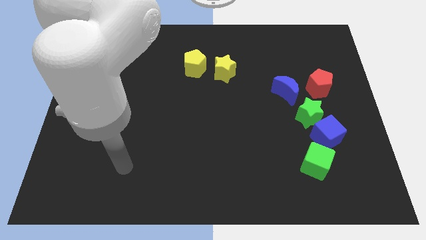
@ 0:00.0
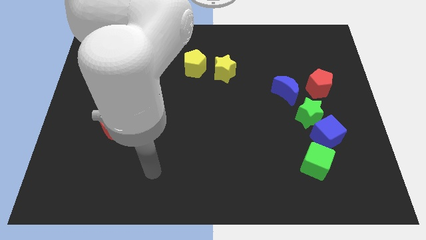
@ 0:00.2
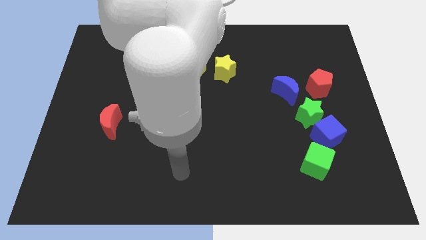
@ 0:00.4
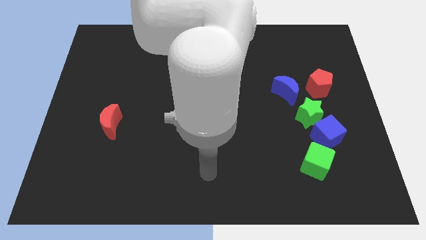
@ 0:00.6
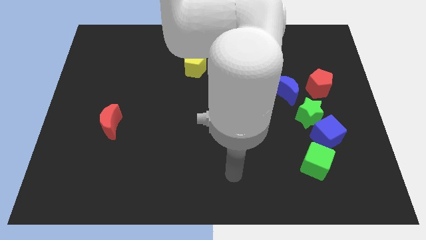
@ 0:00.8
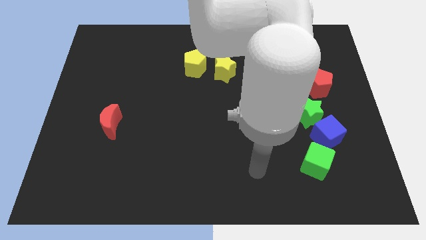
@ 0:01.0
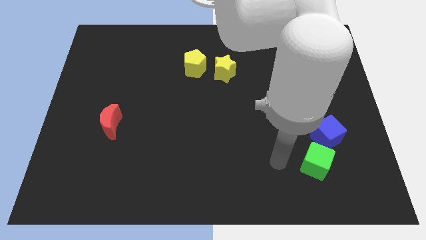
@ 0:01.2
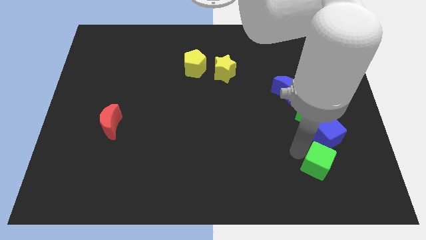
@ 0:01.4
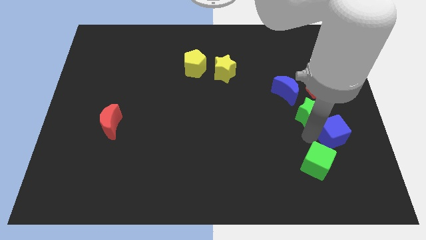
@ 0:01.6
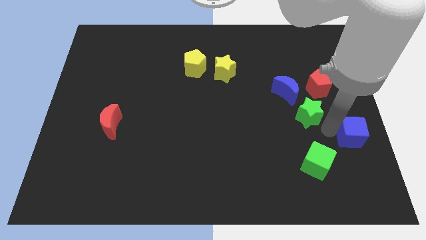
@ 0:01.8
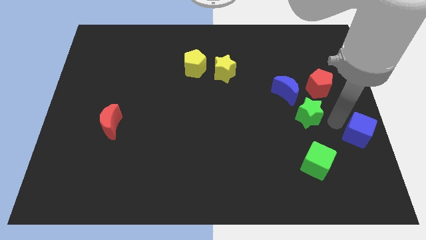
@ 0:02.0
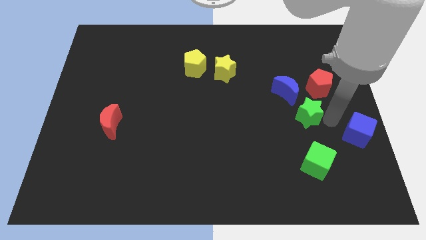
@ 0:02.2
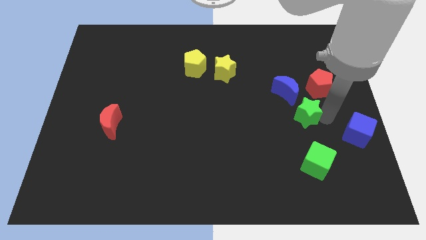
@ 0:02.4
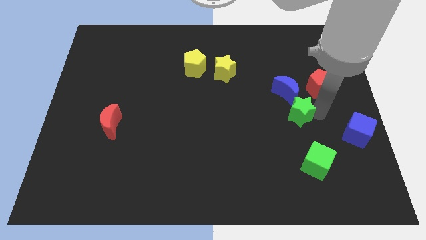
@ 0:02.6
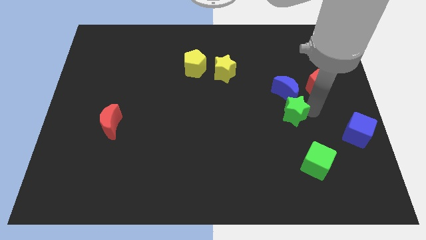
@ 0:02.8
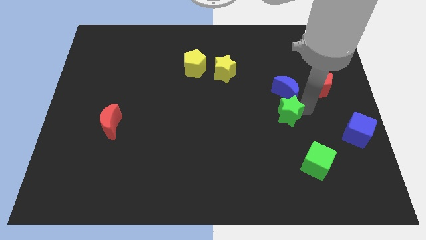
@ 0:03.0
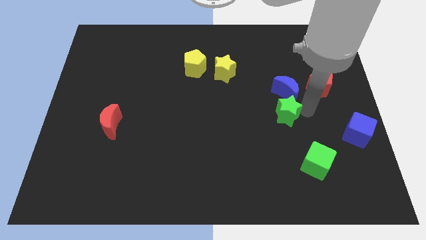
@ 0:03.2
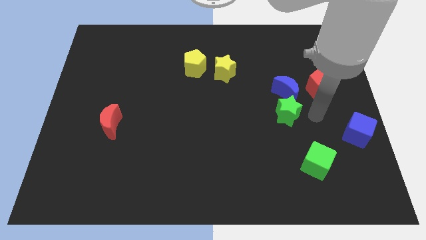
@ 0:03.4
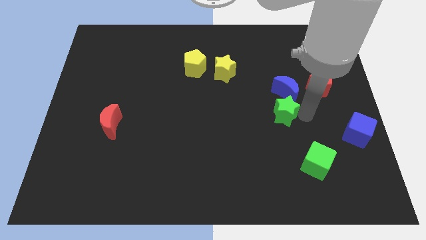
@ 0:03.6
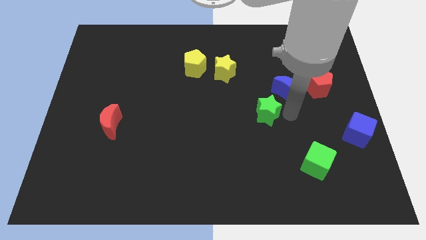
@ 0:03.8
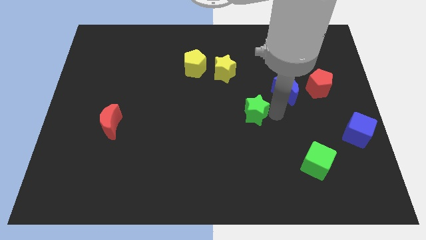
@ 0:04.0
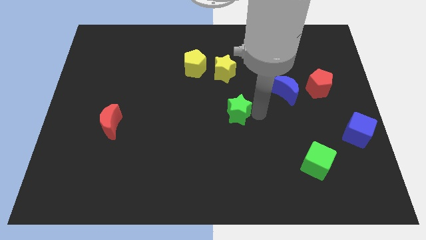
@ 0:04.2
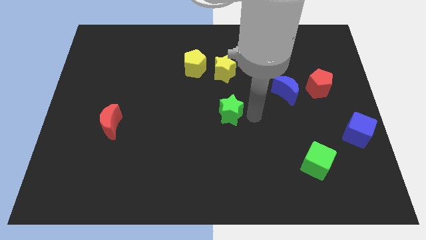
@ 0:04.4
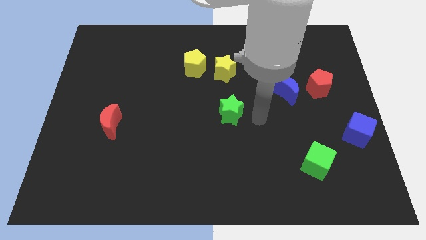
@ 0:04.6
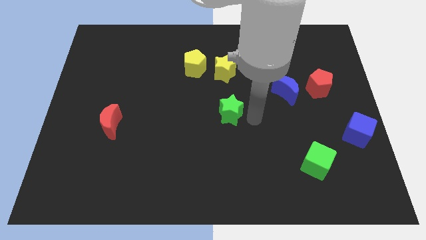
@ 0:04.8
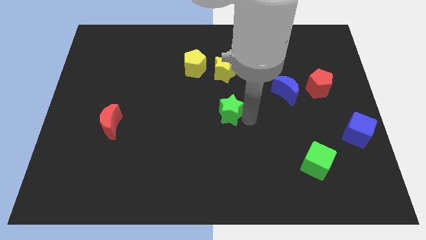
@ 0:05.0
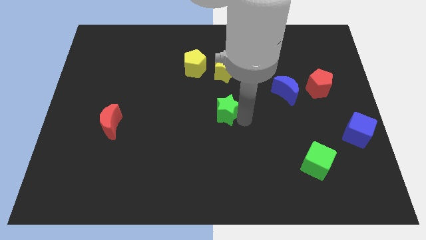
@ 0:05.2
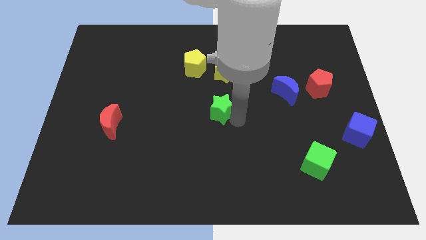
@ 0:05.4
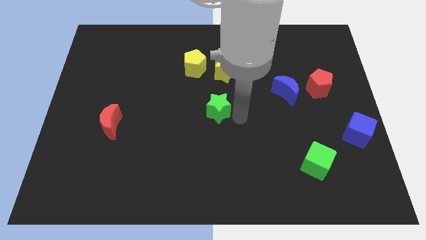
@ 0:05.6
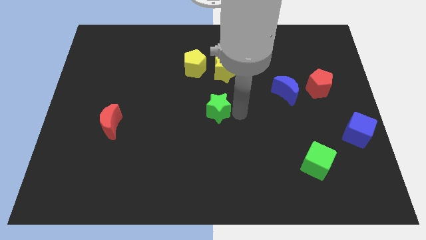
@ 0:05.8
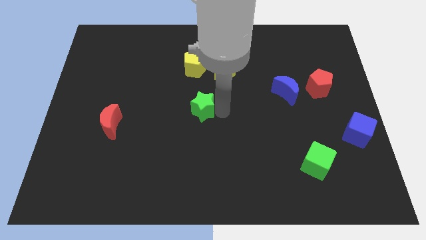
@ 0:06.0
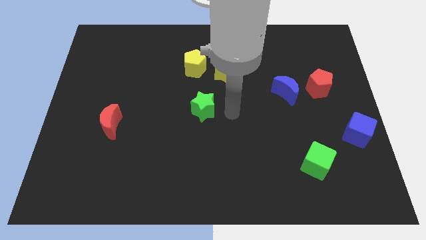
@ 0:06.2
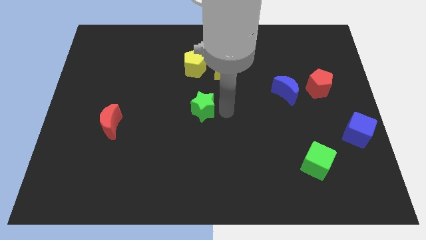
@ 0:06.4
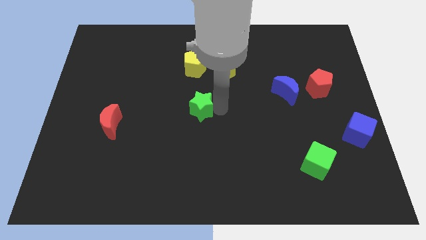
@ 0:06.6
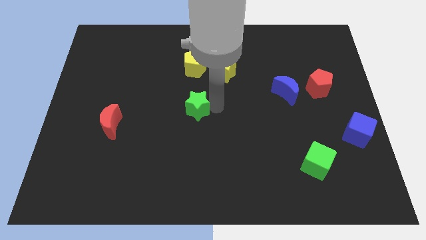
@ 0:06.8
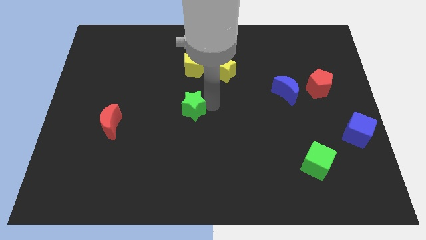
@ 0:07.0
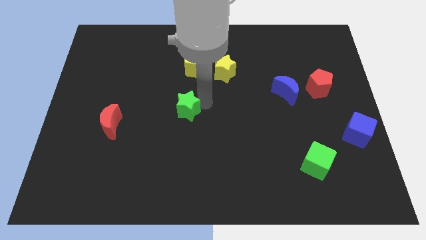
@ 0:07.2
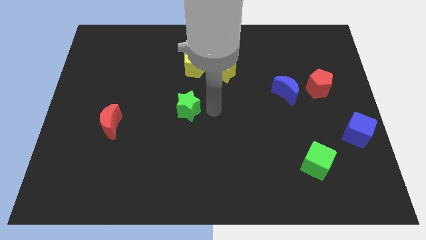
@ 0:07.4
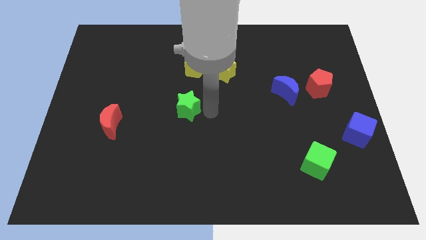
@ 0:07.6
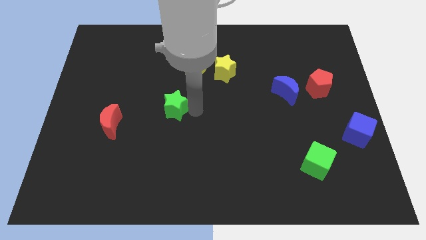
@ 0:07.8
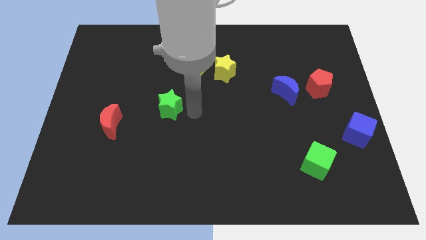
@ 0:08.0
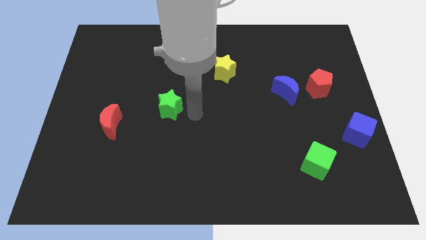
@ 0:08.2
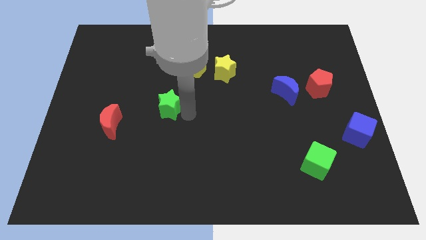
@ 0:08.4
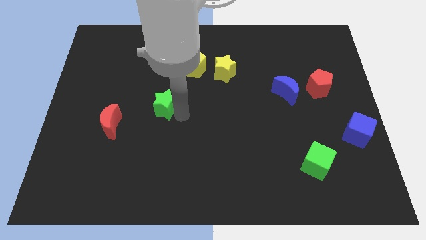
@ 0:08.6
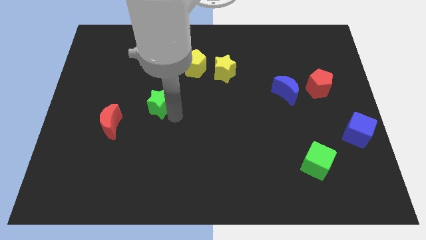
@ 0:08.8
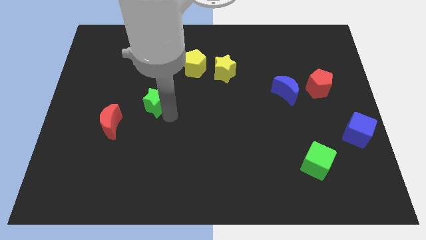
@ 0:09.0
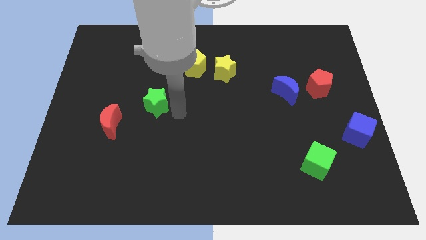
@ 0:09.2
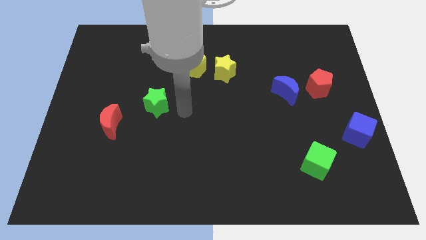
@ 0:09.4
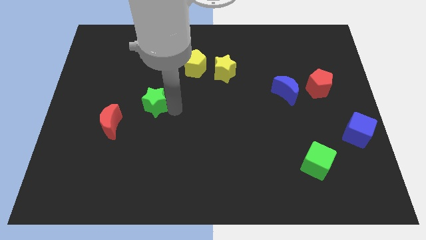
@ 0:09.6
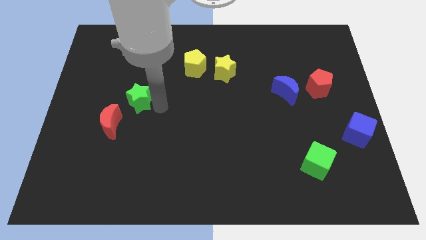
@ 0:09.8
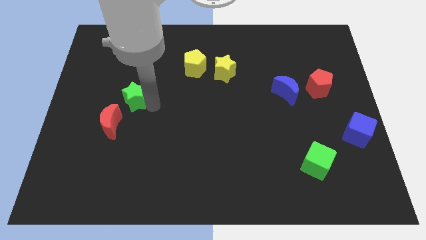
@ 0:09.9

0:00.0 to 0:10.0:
push the green star above the red moon

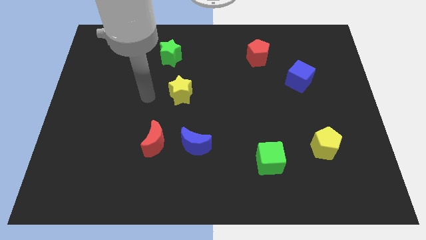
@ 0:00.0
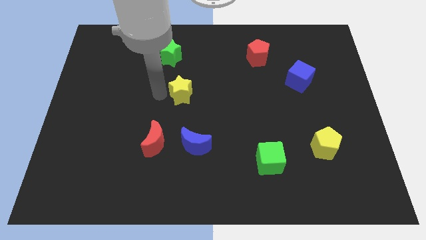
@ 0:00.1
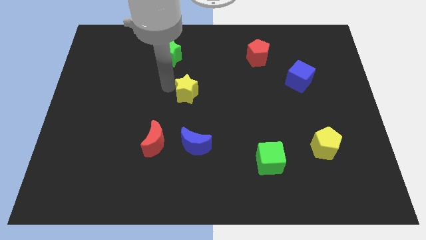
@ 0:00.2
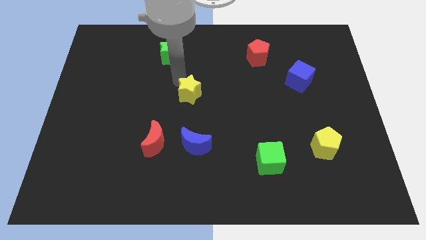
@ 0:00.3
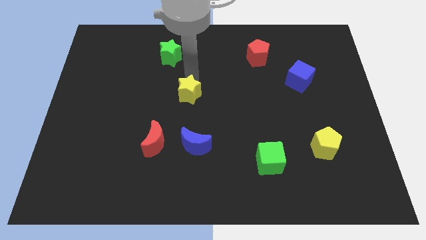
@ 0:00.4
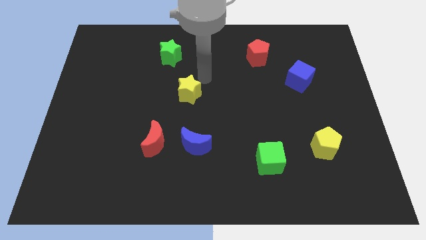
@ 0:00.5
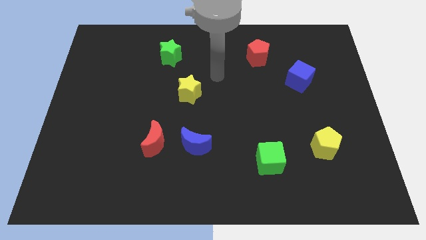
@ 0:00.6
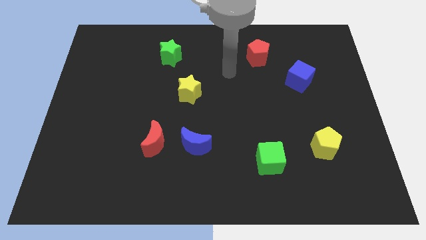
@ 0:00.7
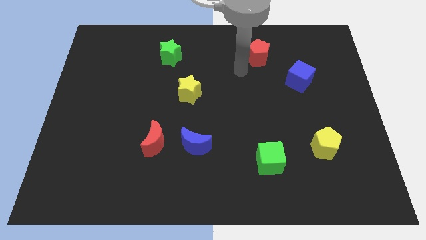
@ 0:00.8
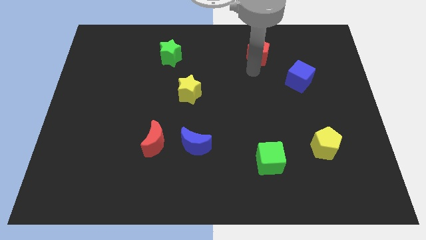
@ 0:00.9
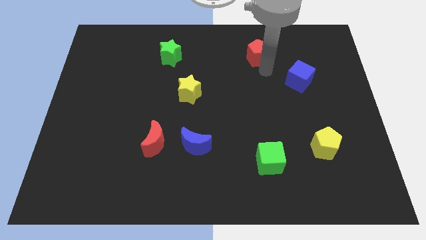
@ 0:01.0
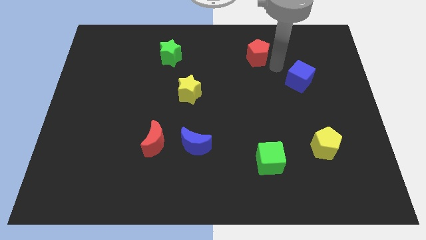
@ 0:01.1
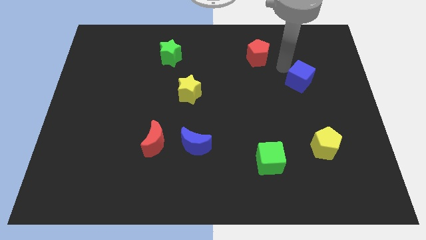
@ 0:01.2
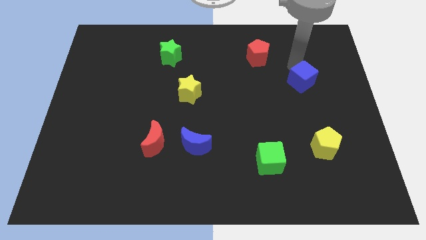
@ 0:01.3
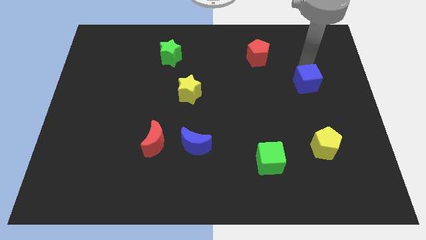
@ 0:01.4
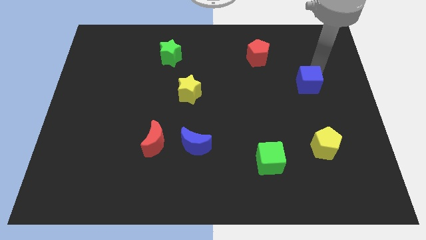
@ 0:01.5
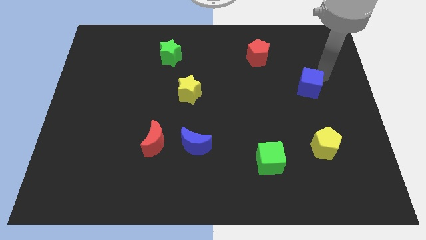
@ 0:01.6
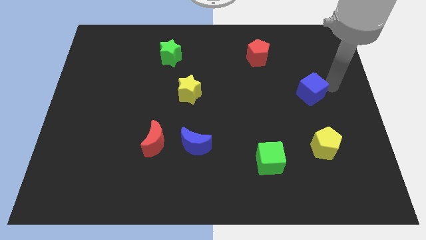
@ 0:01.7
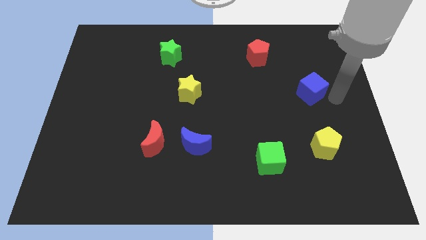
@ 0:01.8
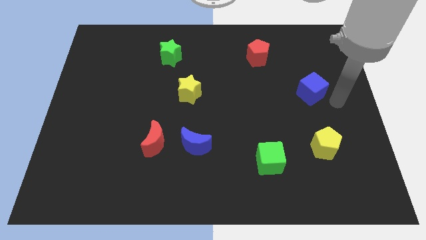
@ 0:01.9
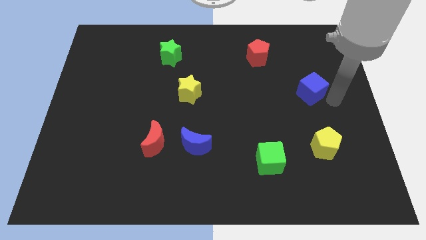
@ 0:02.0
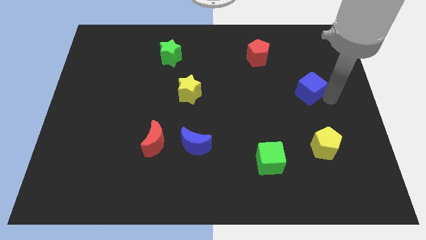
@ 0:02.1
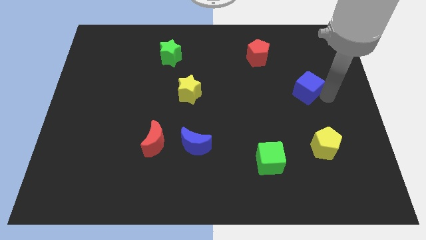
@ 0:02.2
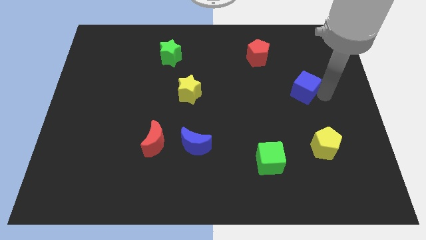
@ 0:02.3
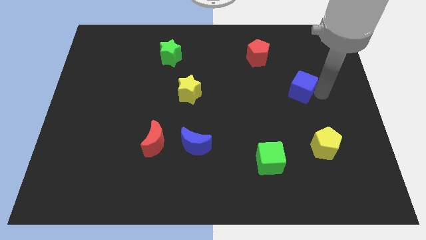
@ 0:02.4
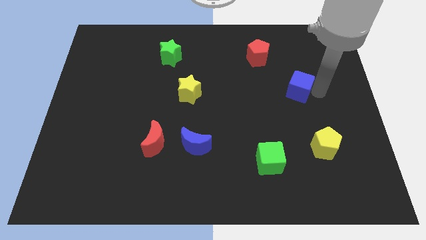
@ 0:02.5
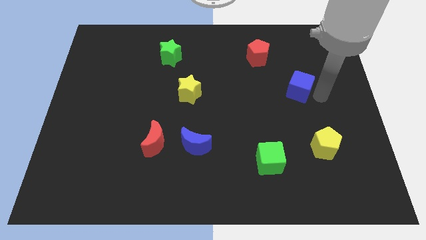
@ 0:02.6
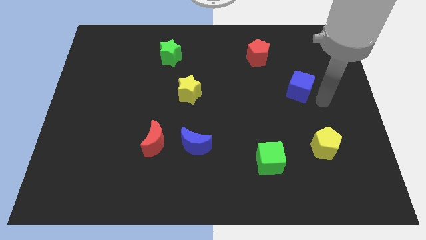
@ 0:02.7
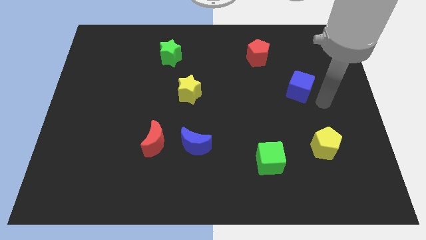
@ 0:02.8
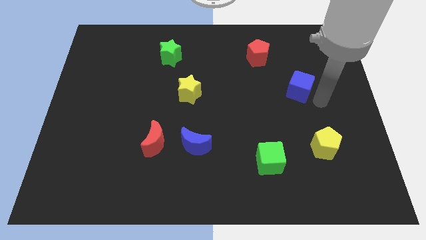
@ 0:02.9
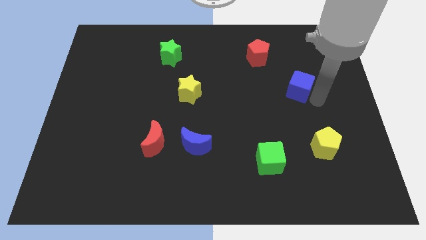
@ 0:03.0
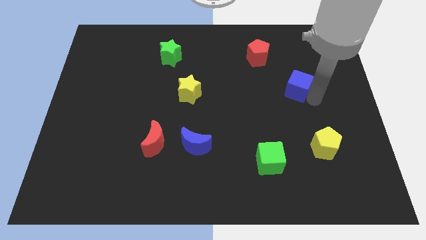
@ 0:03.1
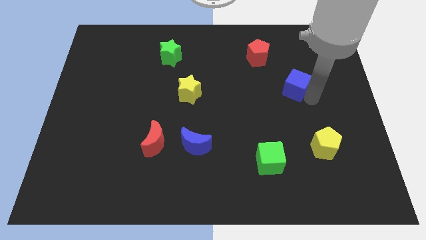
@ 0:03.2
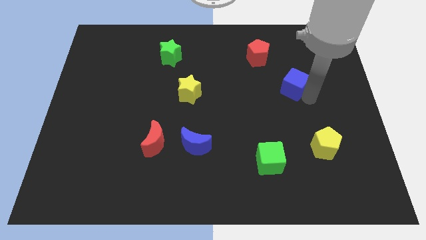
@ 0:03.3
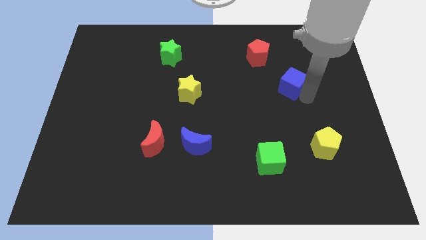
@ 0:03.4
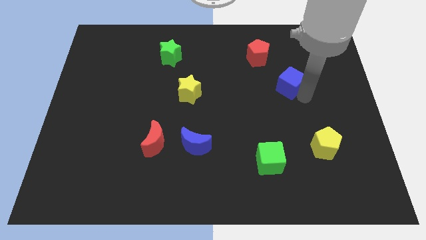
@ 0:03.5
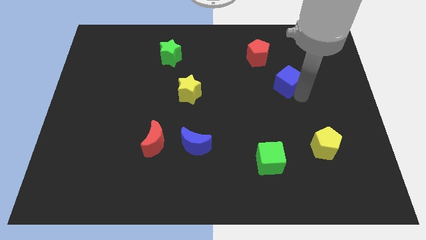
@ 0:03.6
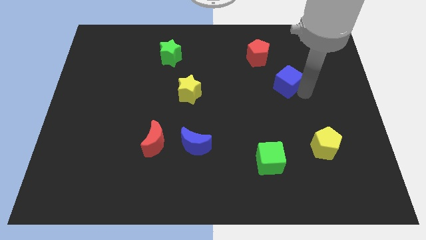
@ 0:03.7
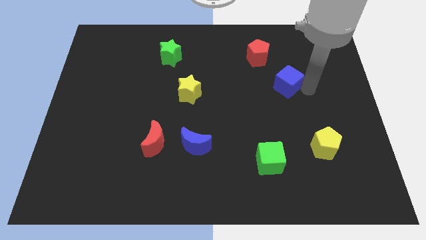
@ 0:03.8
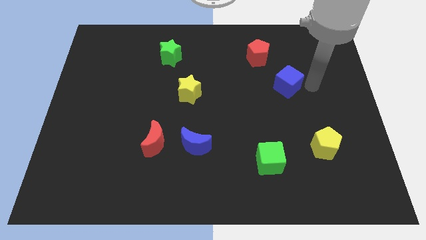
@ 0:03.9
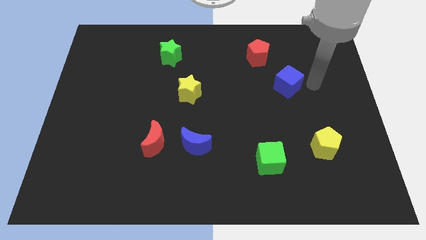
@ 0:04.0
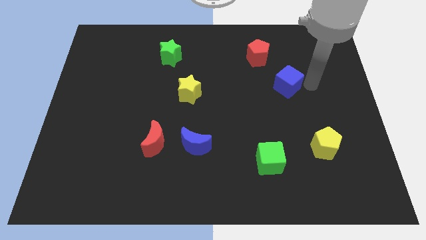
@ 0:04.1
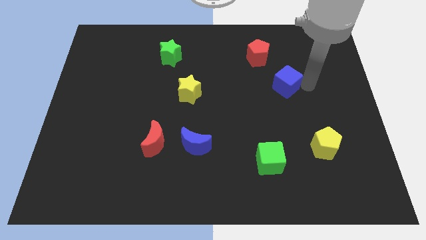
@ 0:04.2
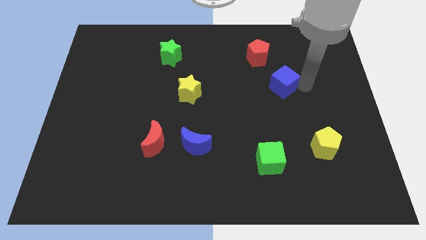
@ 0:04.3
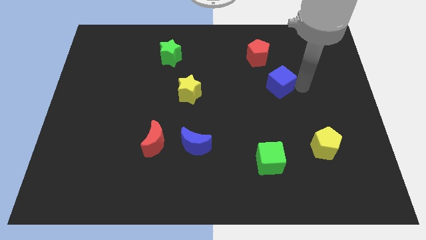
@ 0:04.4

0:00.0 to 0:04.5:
push the blue cube to the bottom of the red pentagon
